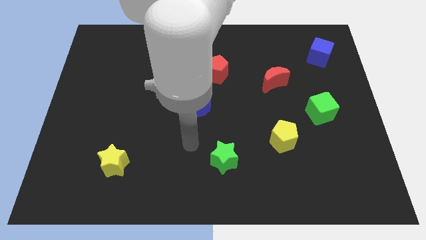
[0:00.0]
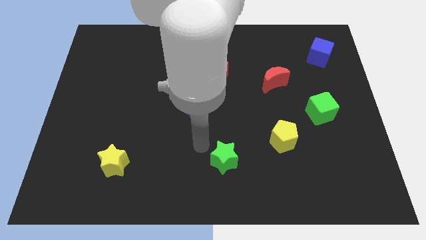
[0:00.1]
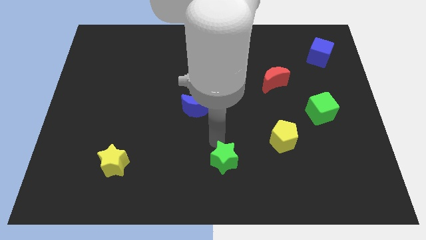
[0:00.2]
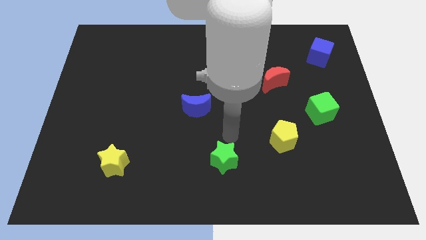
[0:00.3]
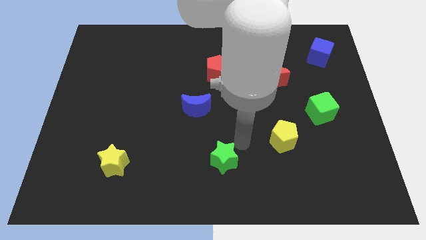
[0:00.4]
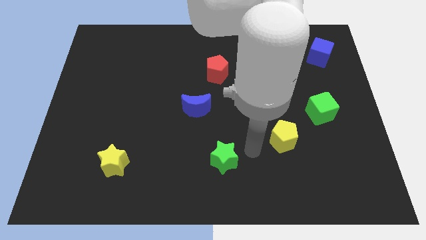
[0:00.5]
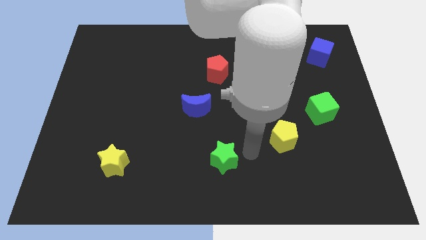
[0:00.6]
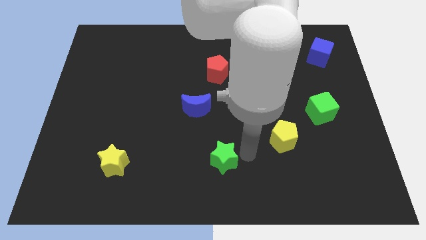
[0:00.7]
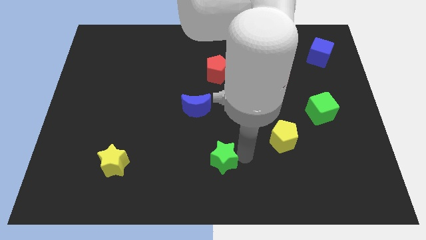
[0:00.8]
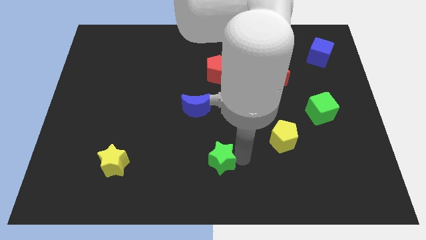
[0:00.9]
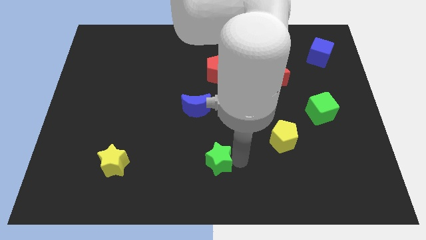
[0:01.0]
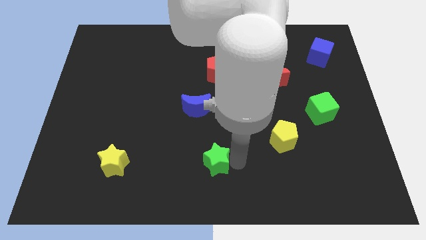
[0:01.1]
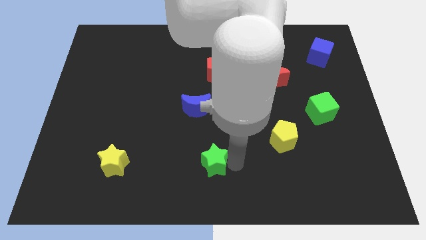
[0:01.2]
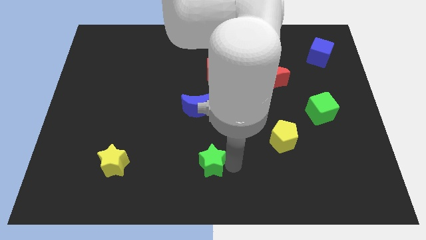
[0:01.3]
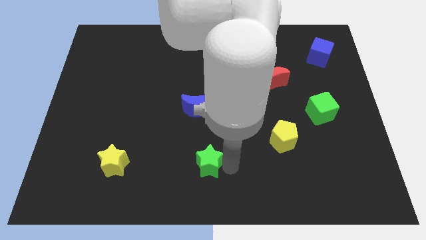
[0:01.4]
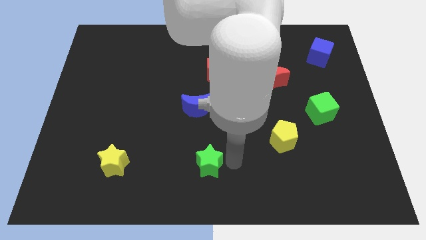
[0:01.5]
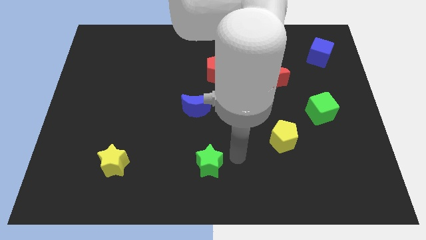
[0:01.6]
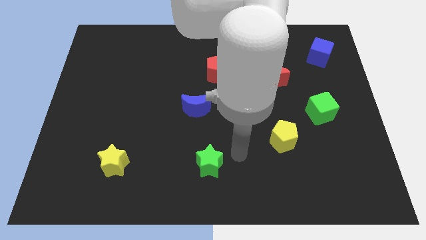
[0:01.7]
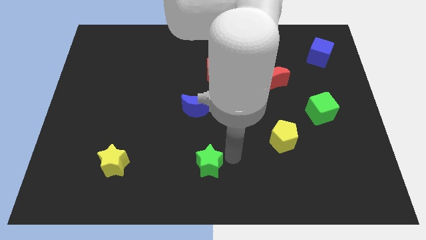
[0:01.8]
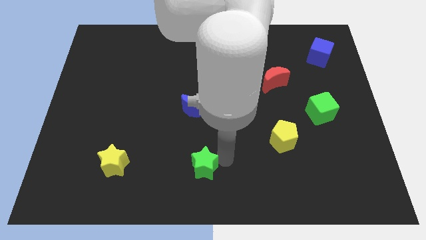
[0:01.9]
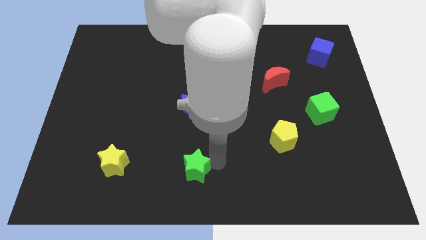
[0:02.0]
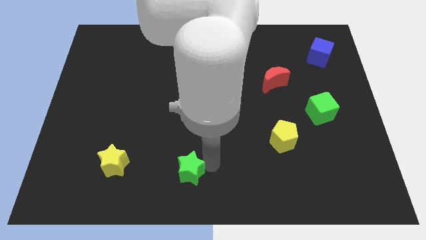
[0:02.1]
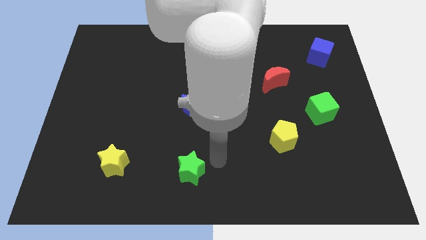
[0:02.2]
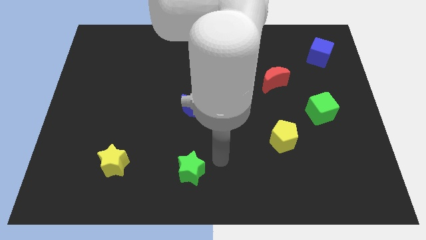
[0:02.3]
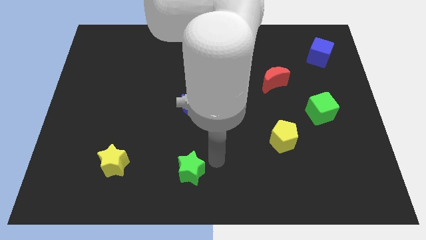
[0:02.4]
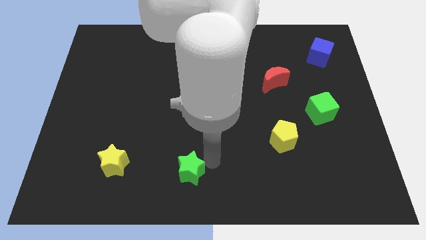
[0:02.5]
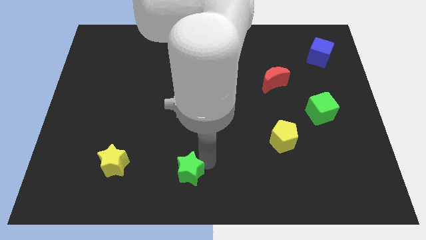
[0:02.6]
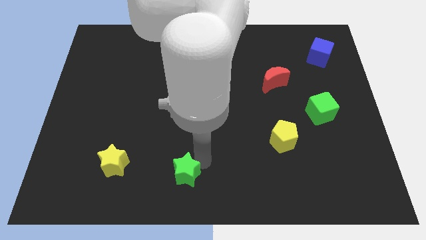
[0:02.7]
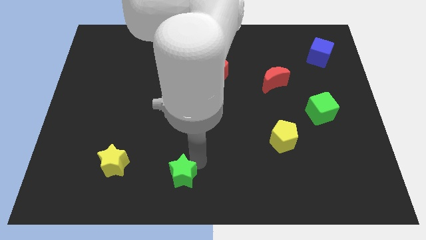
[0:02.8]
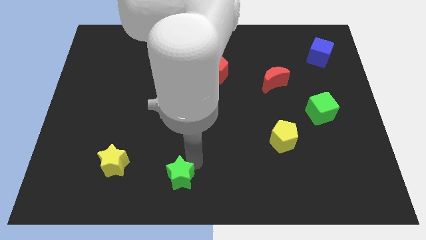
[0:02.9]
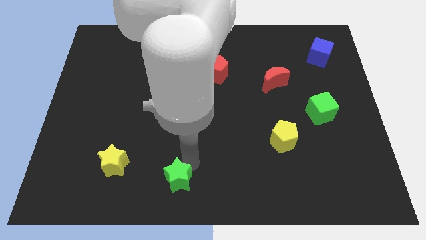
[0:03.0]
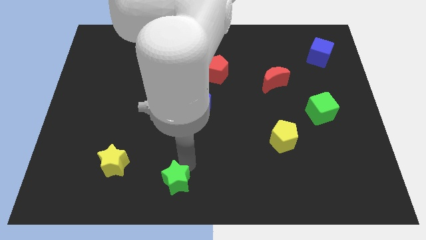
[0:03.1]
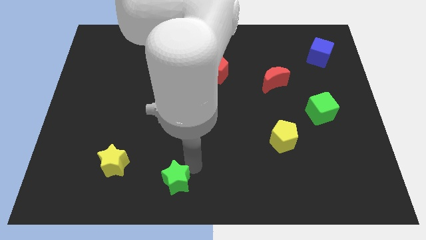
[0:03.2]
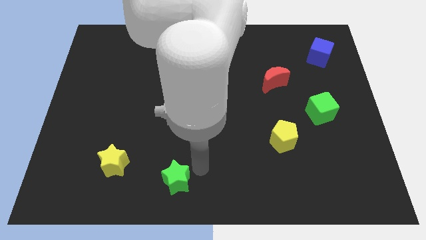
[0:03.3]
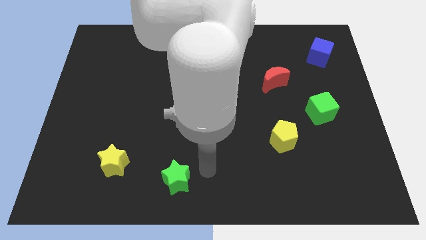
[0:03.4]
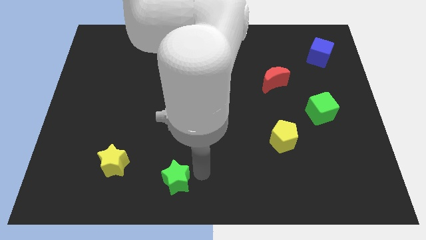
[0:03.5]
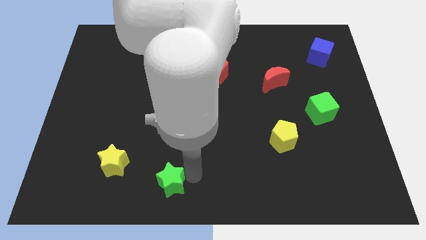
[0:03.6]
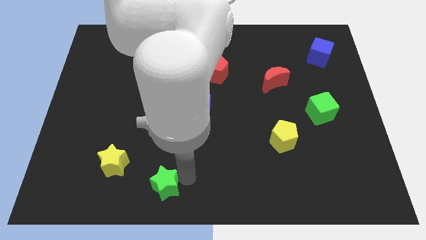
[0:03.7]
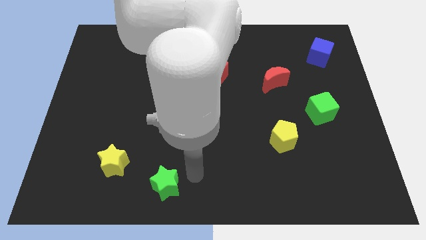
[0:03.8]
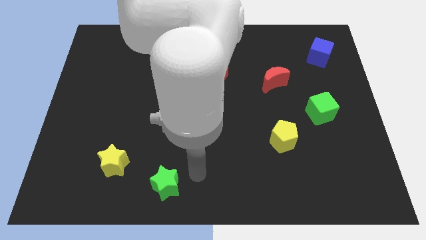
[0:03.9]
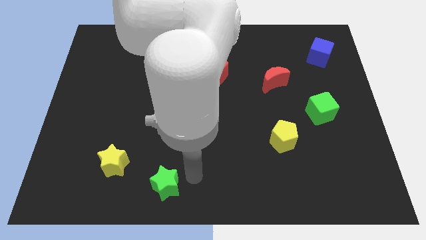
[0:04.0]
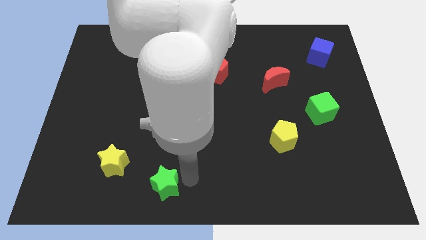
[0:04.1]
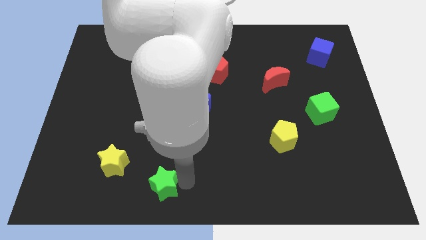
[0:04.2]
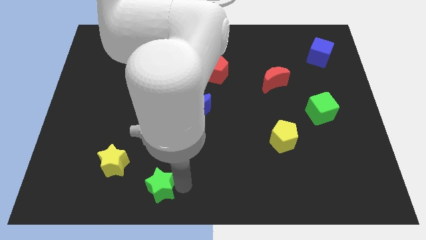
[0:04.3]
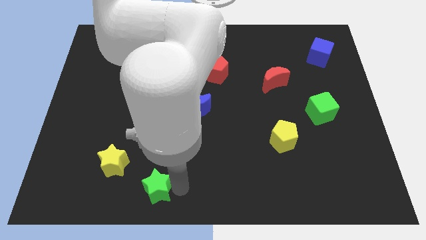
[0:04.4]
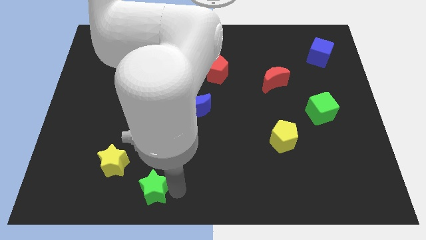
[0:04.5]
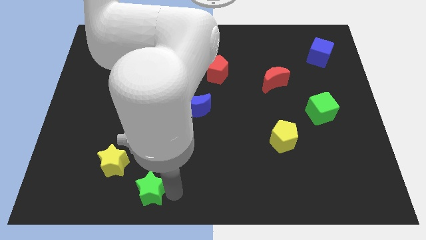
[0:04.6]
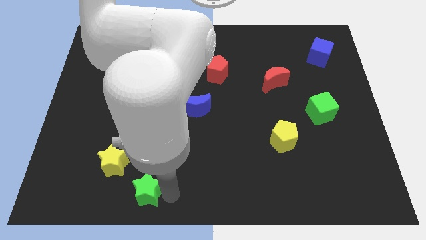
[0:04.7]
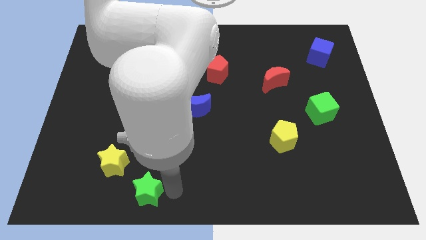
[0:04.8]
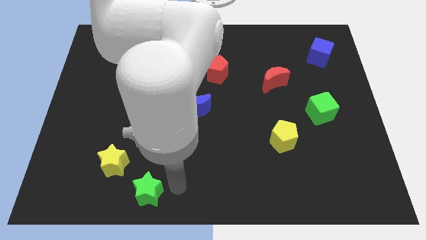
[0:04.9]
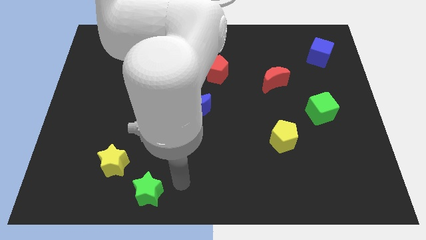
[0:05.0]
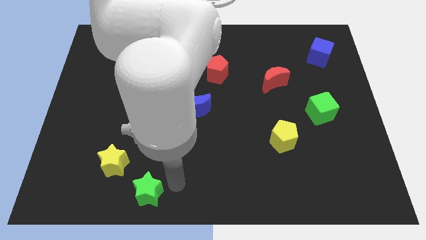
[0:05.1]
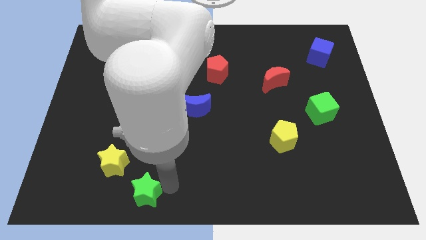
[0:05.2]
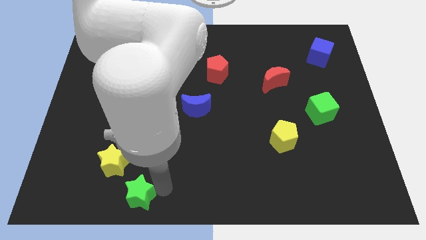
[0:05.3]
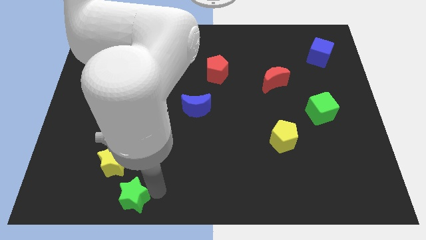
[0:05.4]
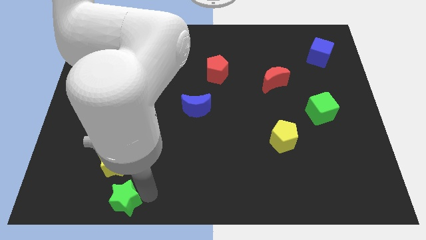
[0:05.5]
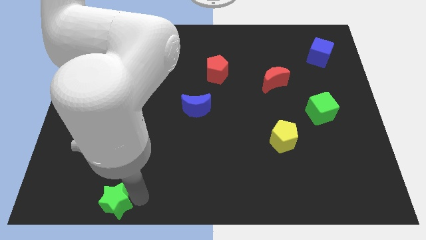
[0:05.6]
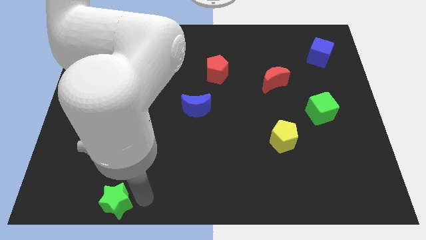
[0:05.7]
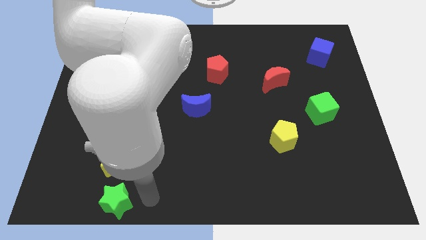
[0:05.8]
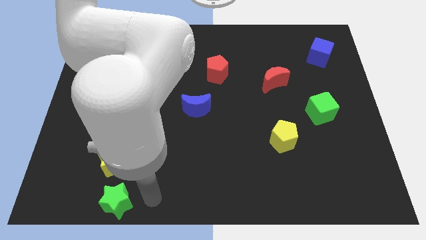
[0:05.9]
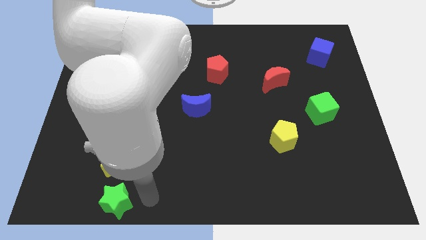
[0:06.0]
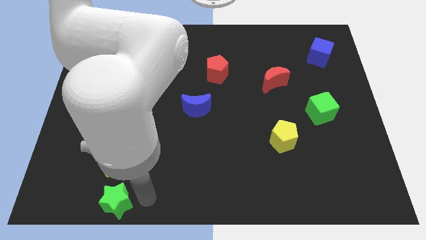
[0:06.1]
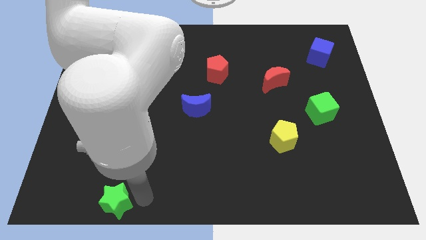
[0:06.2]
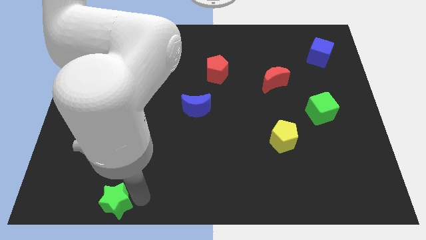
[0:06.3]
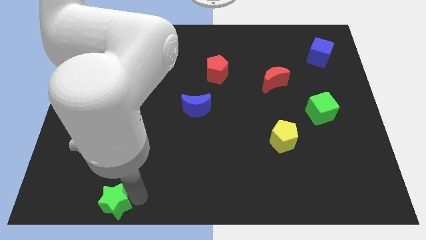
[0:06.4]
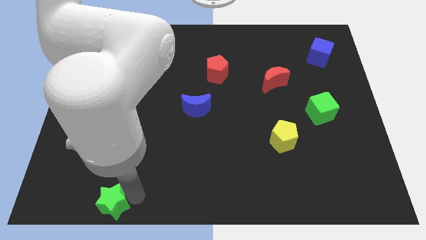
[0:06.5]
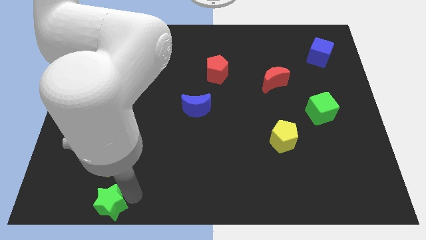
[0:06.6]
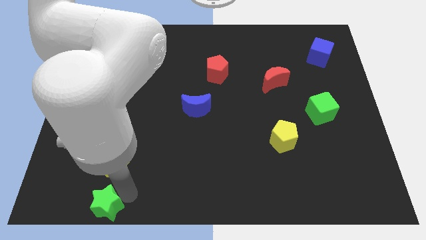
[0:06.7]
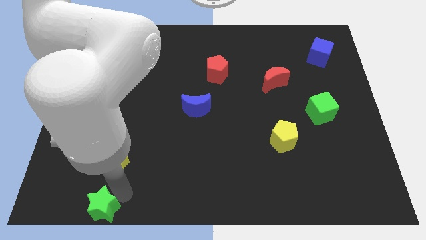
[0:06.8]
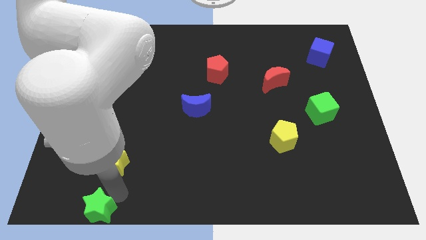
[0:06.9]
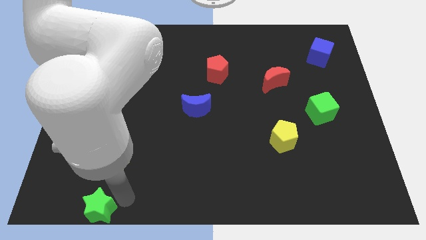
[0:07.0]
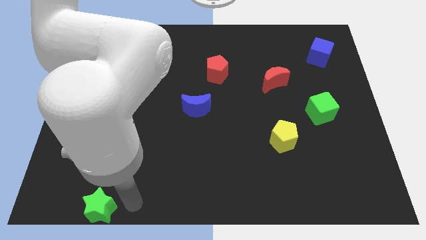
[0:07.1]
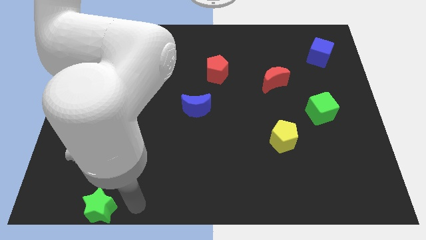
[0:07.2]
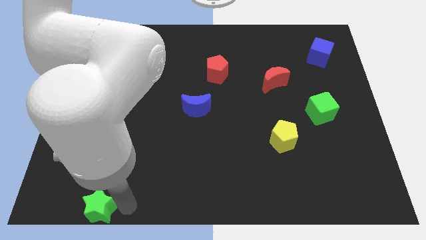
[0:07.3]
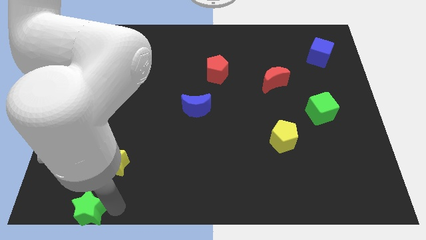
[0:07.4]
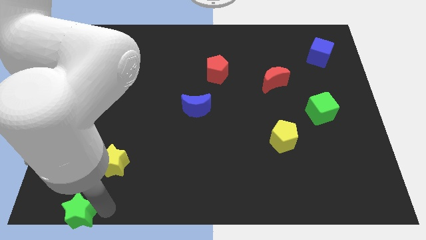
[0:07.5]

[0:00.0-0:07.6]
move the green star to the bottom left corner
